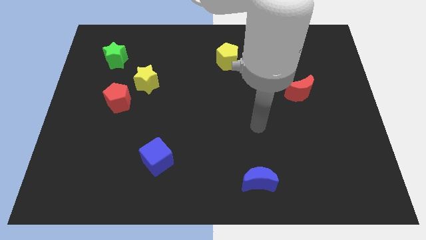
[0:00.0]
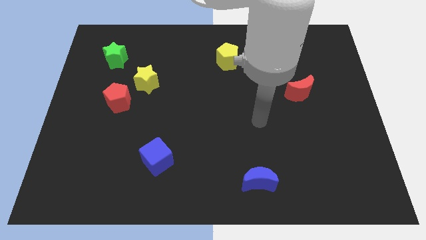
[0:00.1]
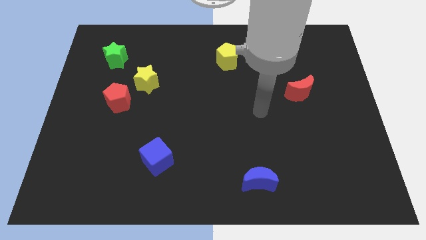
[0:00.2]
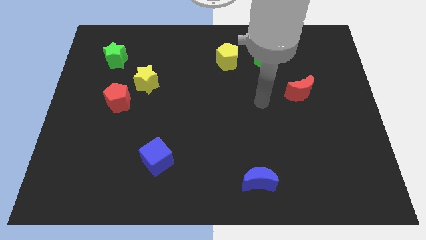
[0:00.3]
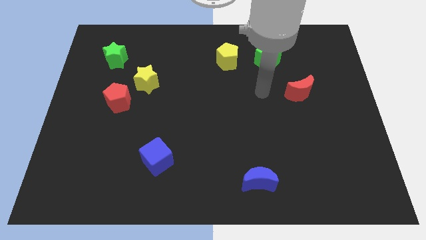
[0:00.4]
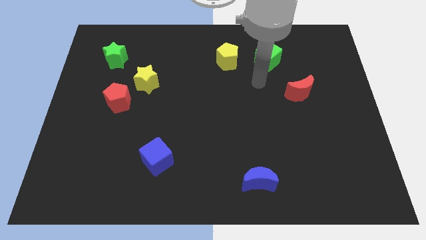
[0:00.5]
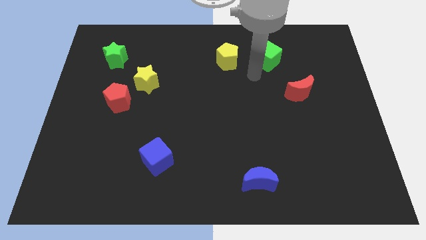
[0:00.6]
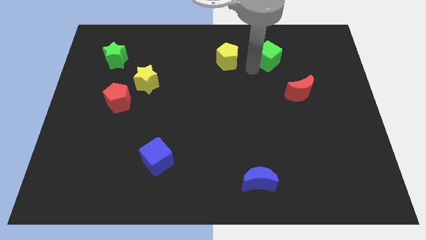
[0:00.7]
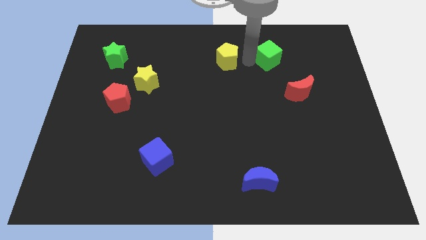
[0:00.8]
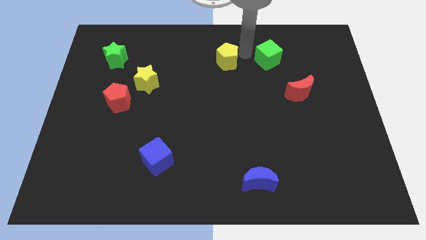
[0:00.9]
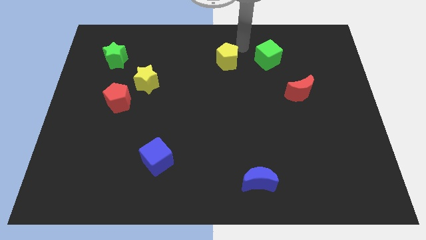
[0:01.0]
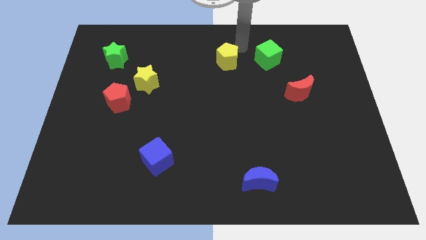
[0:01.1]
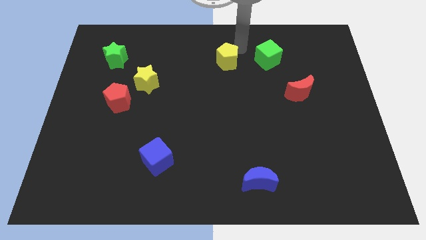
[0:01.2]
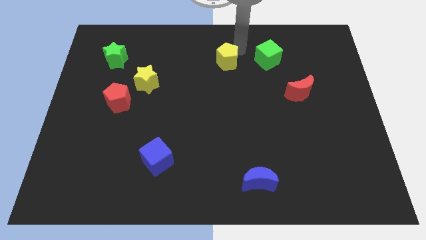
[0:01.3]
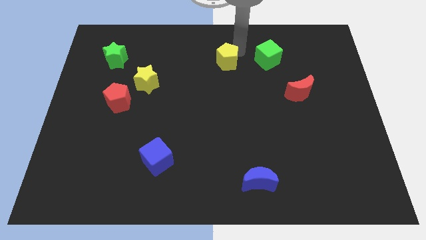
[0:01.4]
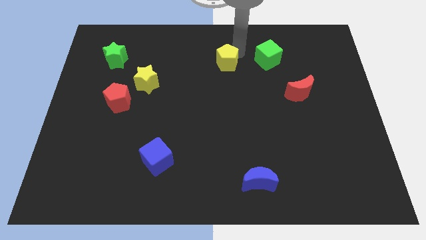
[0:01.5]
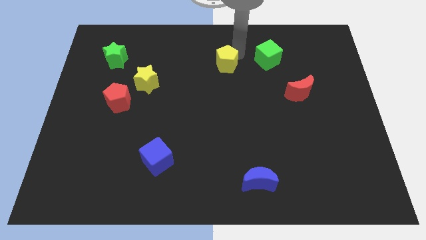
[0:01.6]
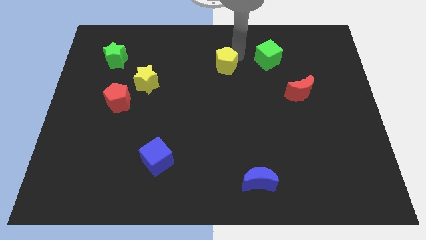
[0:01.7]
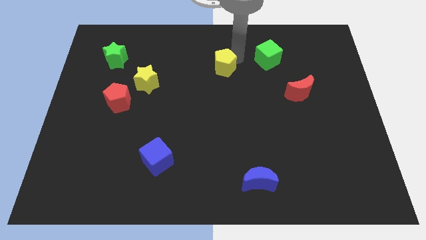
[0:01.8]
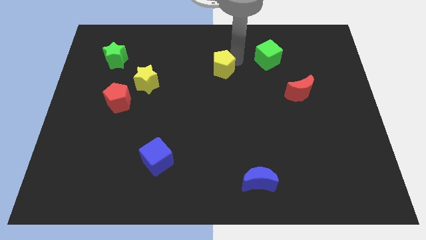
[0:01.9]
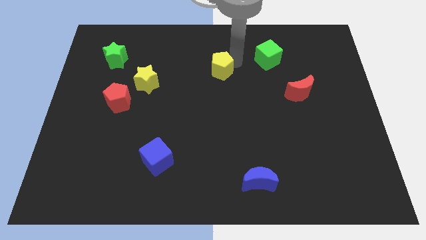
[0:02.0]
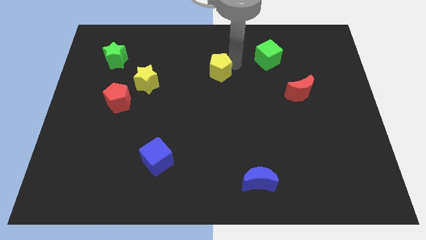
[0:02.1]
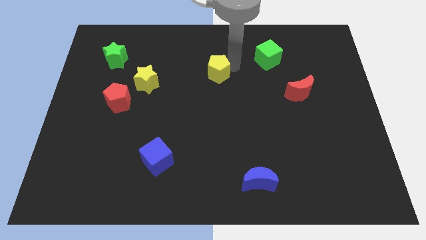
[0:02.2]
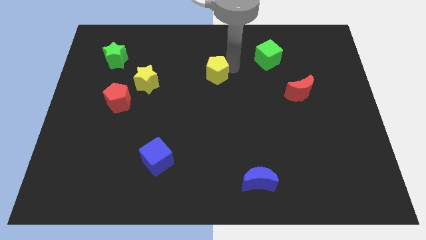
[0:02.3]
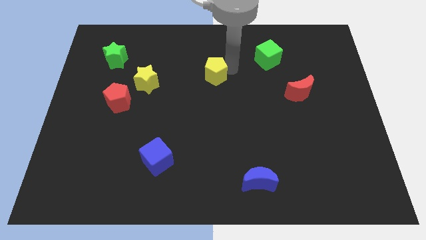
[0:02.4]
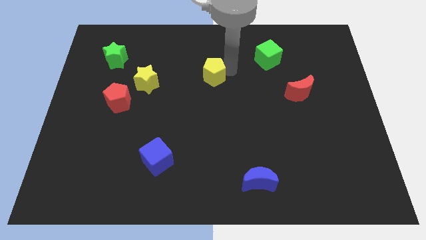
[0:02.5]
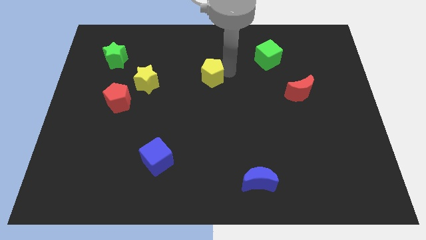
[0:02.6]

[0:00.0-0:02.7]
slightly move the yellow pentagon diagonally down and to the left

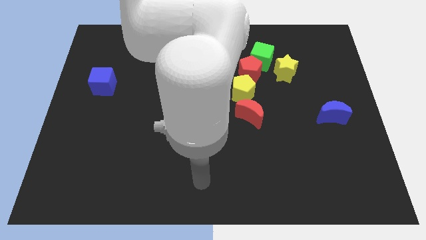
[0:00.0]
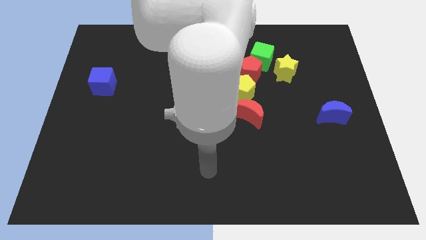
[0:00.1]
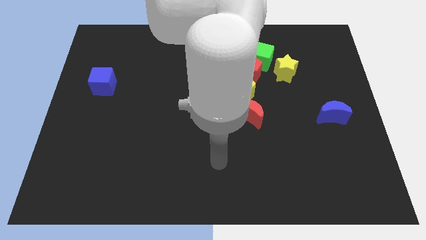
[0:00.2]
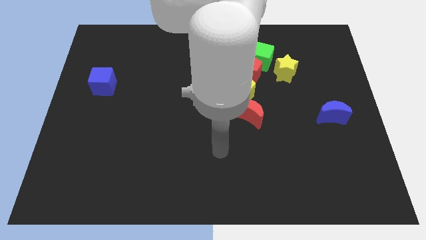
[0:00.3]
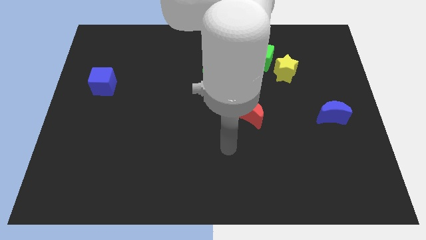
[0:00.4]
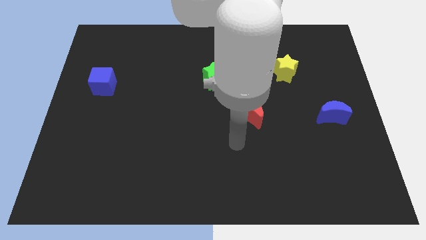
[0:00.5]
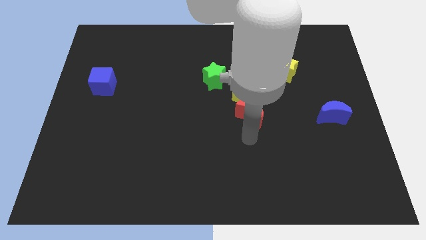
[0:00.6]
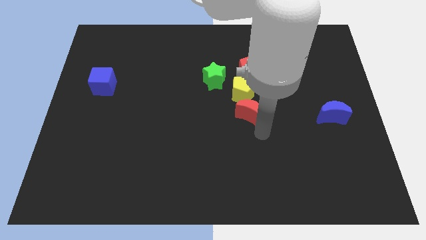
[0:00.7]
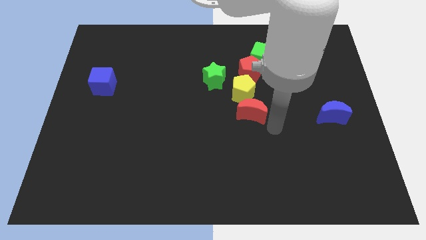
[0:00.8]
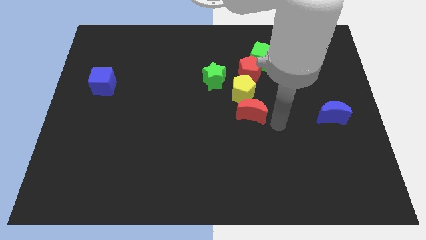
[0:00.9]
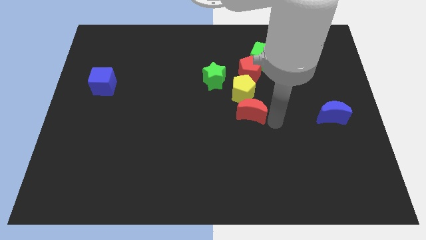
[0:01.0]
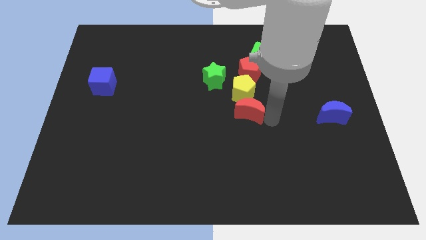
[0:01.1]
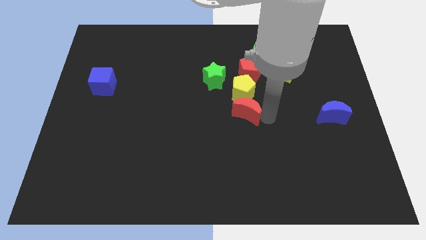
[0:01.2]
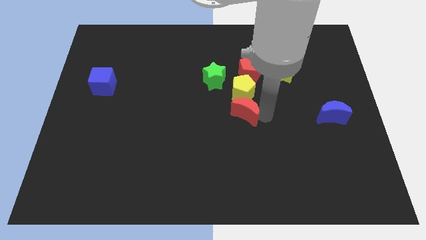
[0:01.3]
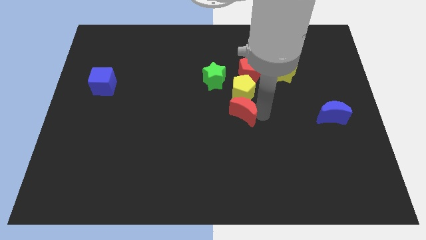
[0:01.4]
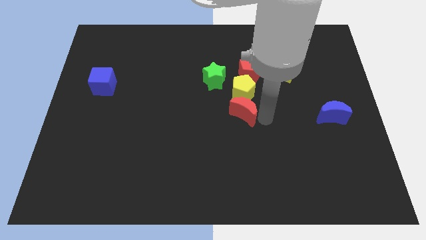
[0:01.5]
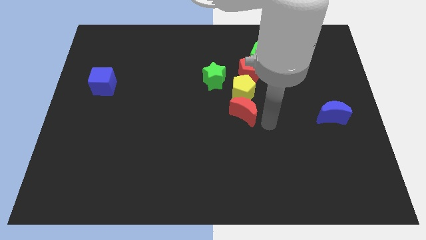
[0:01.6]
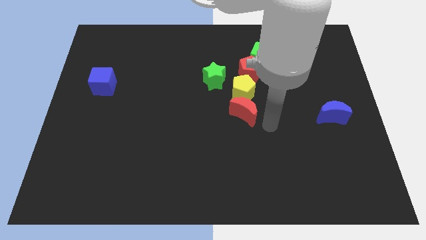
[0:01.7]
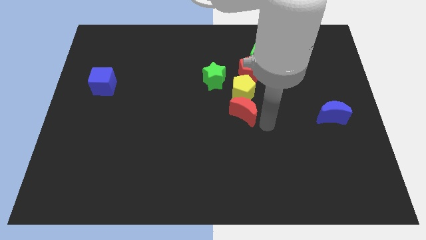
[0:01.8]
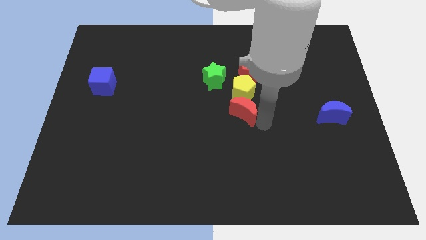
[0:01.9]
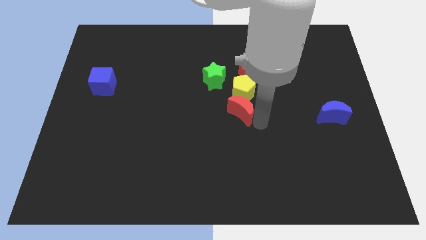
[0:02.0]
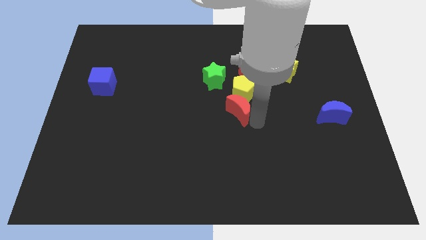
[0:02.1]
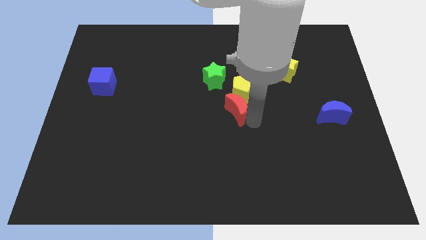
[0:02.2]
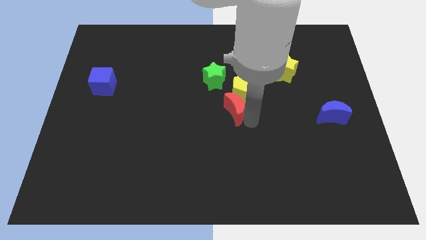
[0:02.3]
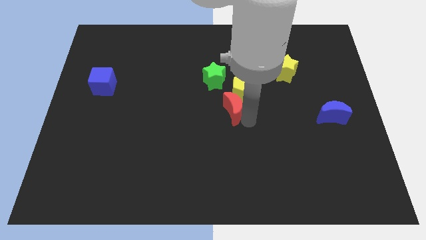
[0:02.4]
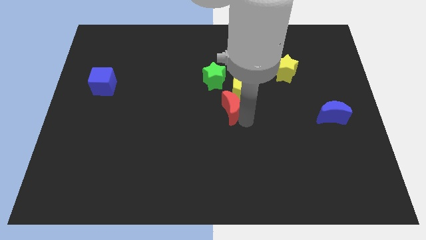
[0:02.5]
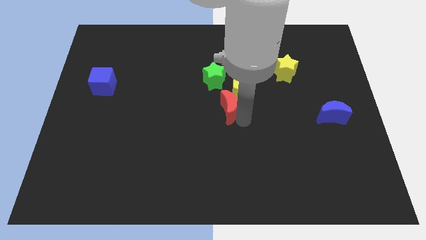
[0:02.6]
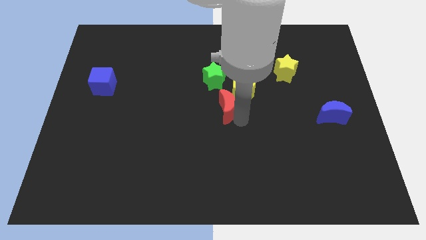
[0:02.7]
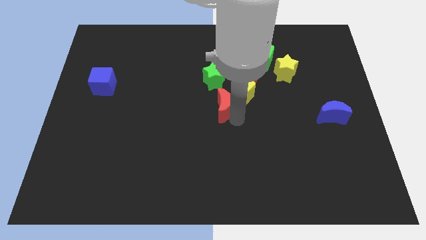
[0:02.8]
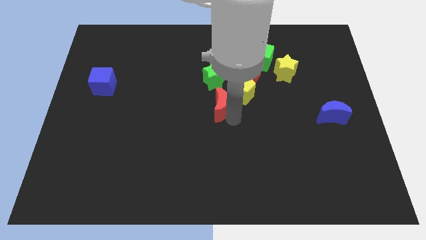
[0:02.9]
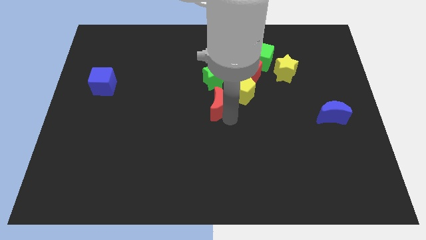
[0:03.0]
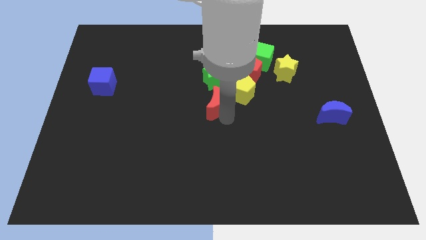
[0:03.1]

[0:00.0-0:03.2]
move the red moon somewhat up and to the left

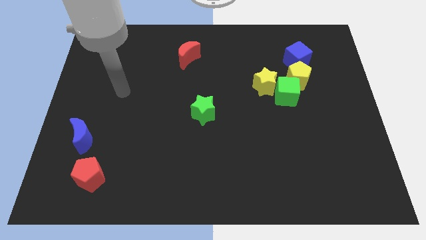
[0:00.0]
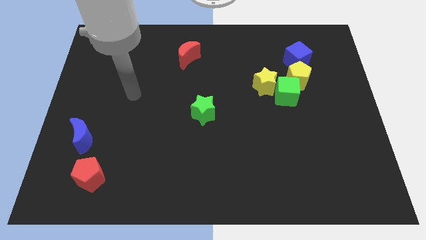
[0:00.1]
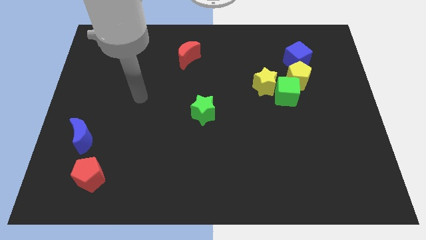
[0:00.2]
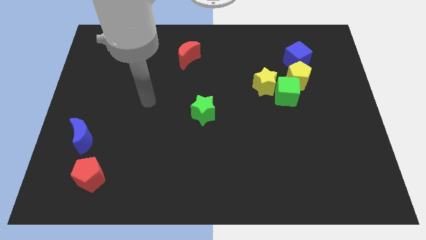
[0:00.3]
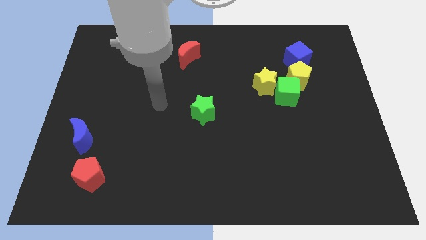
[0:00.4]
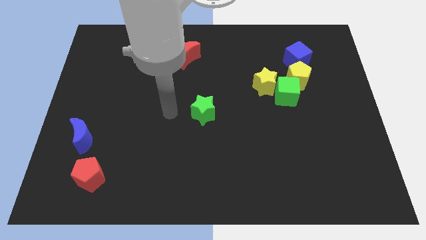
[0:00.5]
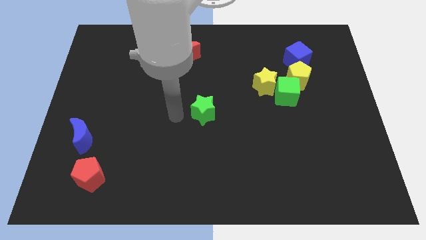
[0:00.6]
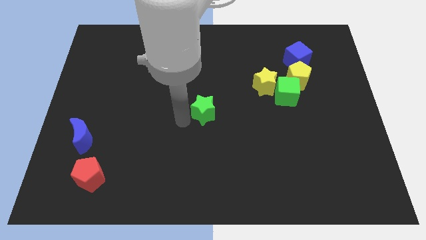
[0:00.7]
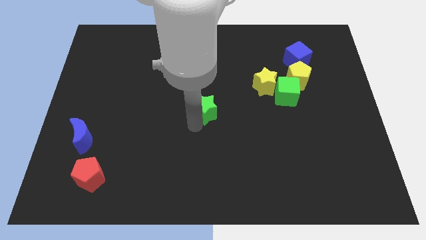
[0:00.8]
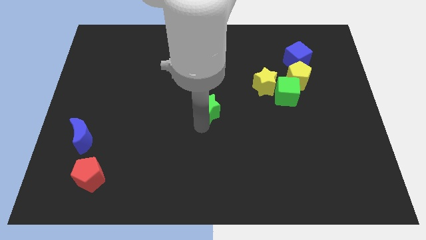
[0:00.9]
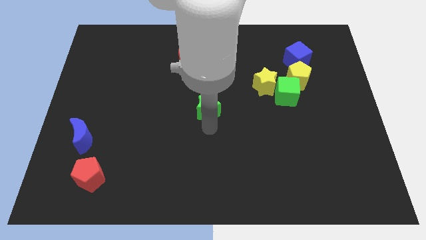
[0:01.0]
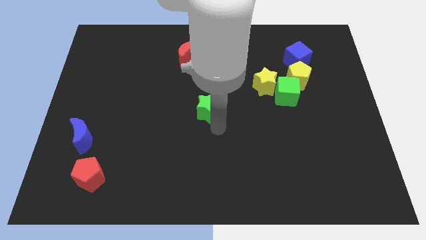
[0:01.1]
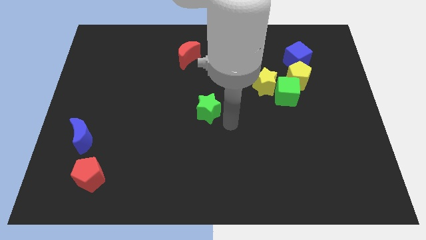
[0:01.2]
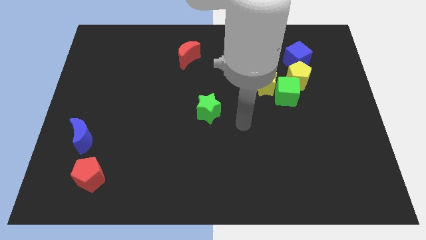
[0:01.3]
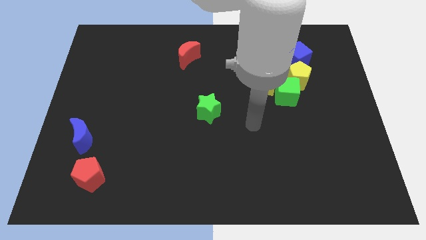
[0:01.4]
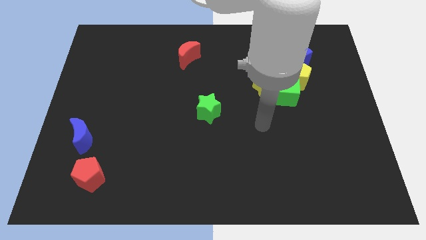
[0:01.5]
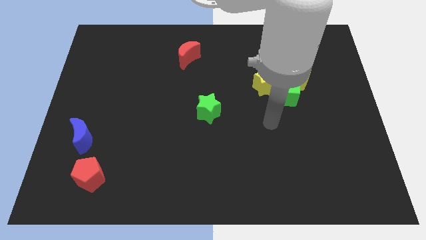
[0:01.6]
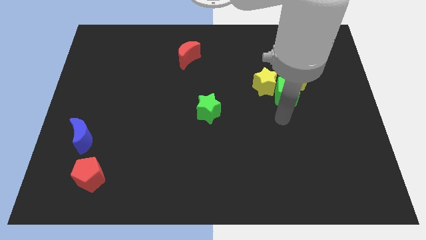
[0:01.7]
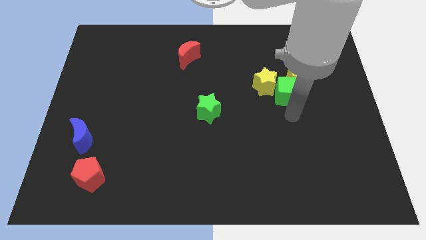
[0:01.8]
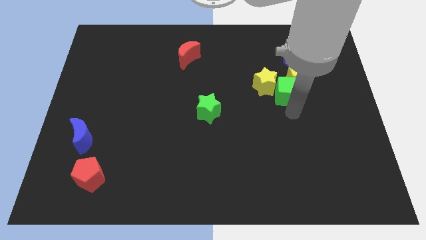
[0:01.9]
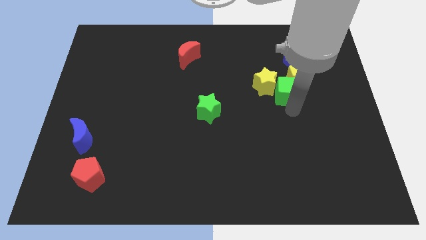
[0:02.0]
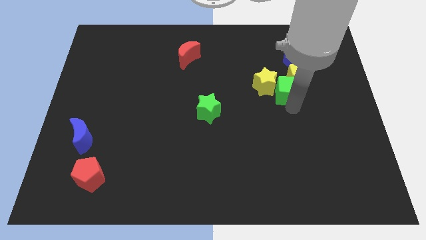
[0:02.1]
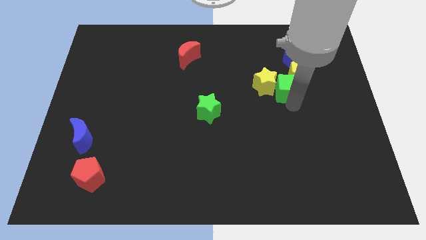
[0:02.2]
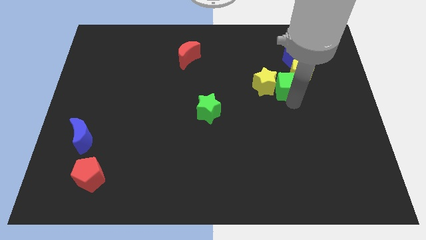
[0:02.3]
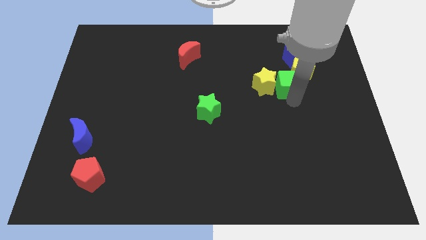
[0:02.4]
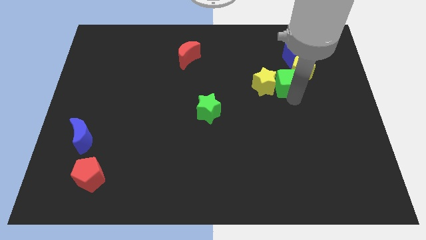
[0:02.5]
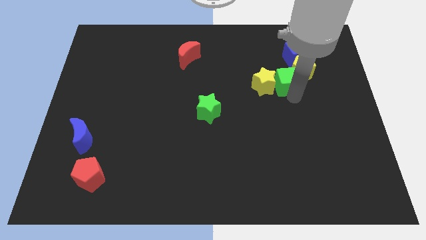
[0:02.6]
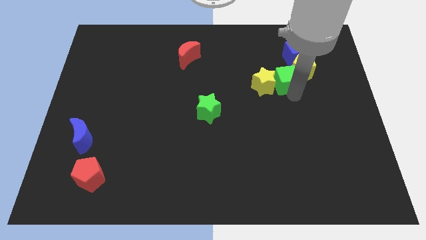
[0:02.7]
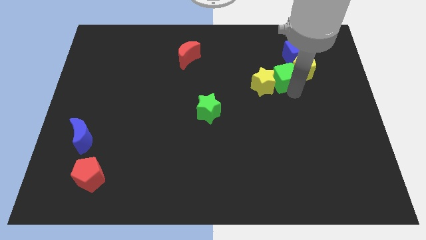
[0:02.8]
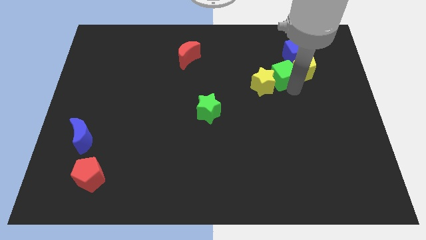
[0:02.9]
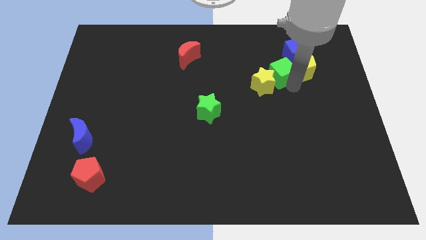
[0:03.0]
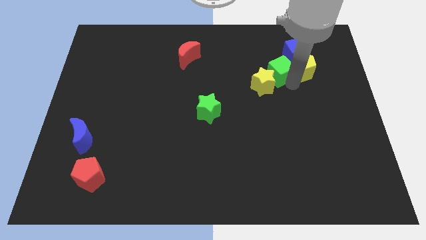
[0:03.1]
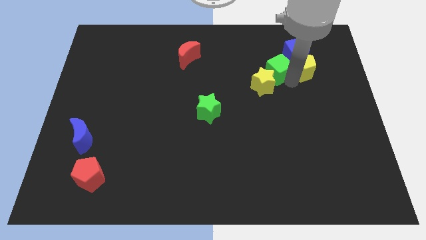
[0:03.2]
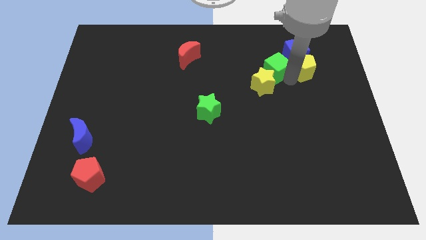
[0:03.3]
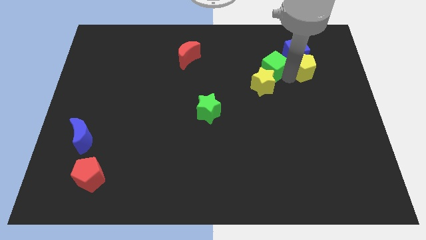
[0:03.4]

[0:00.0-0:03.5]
push the green cube a little upwards and left diagonally
